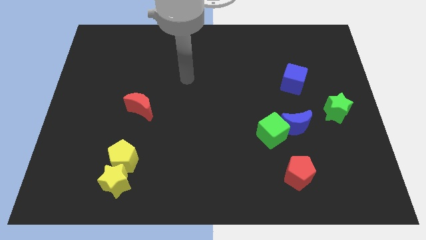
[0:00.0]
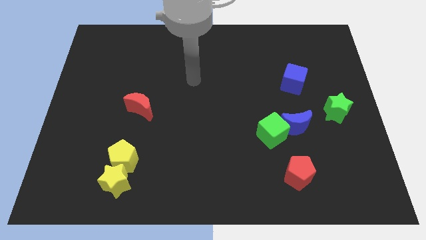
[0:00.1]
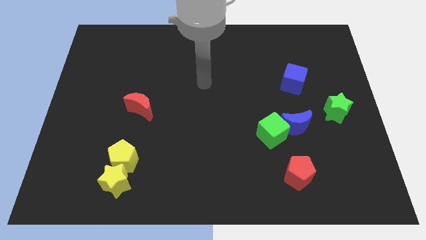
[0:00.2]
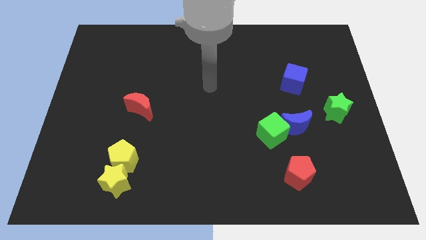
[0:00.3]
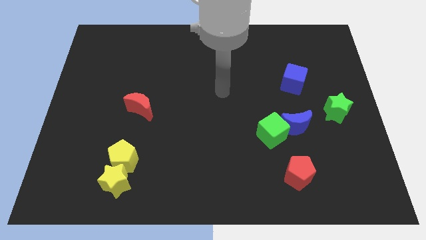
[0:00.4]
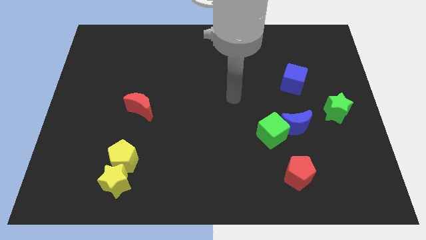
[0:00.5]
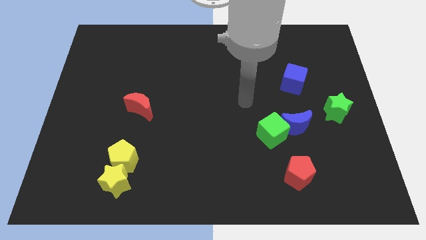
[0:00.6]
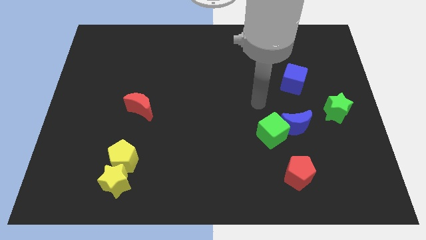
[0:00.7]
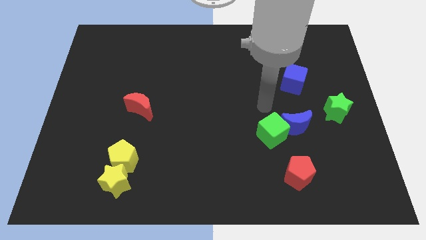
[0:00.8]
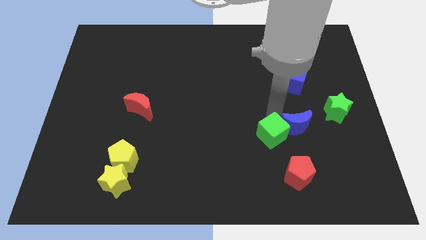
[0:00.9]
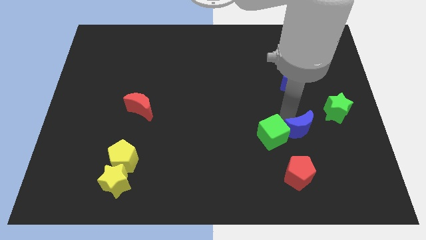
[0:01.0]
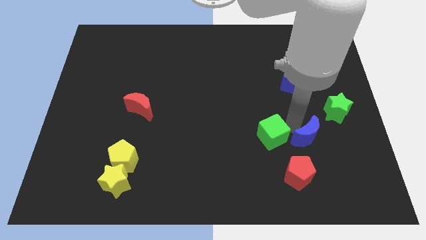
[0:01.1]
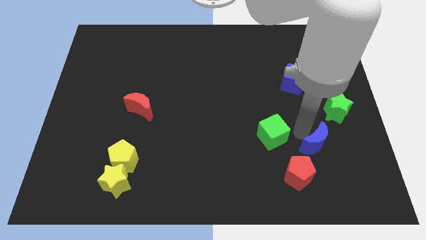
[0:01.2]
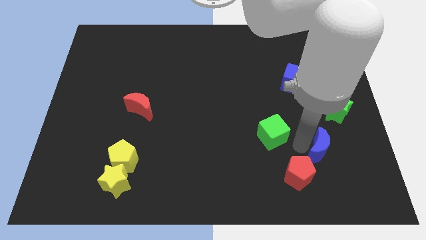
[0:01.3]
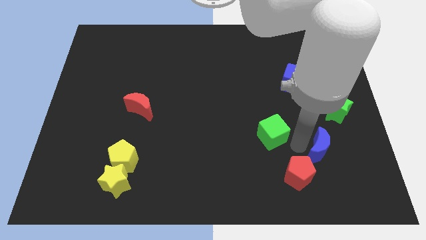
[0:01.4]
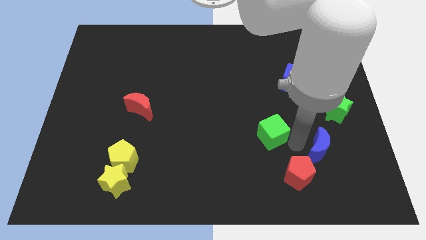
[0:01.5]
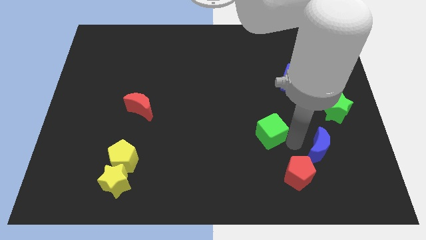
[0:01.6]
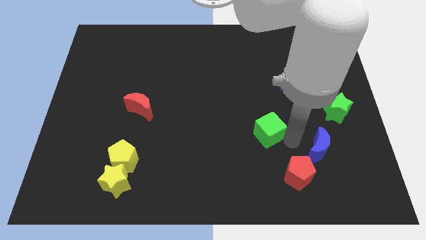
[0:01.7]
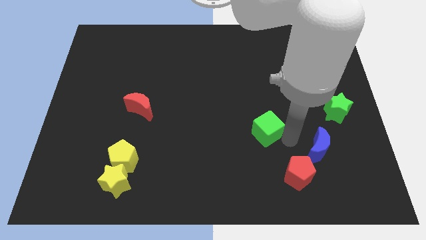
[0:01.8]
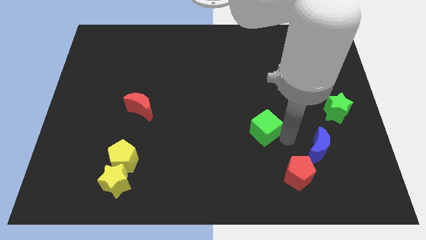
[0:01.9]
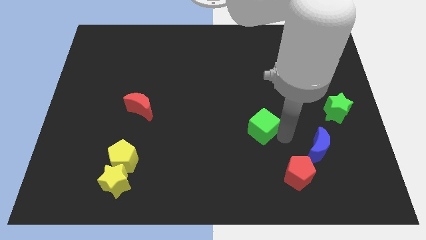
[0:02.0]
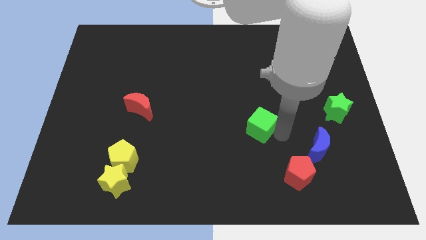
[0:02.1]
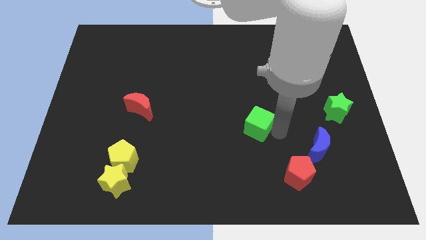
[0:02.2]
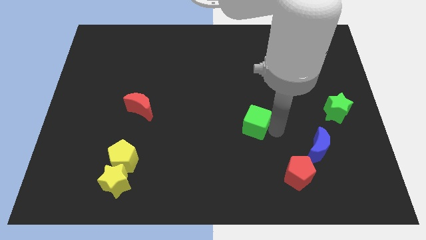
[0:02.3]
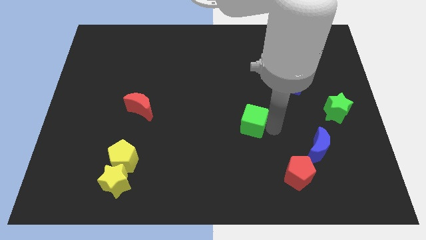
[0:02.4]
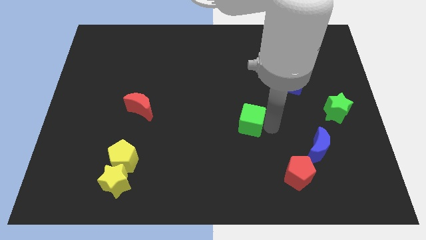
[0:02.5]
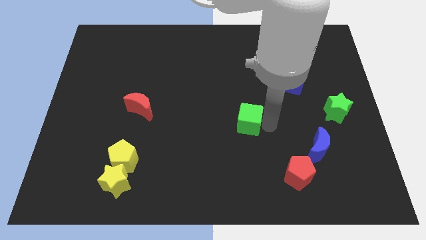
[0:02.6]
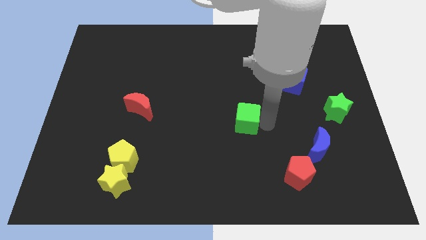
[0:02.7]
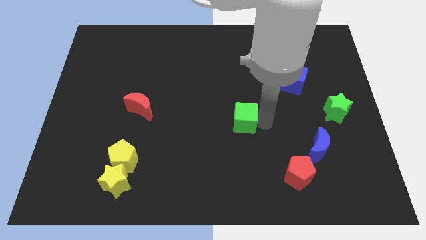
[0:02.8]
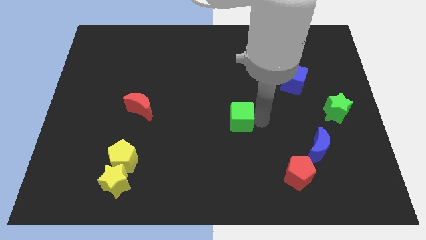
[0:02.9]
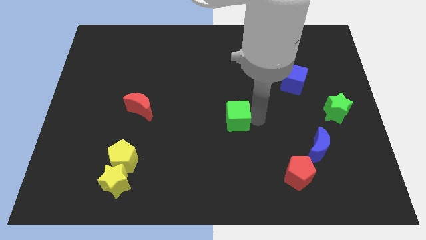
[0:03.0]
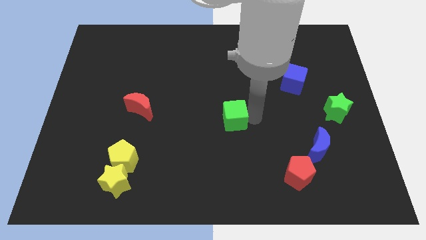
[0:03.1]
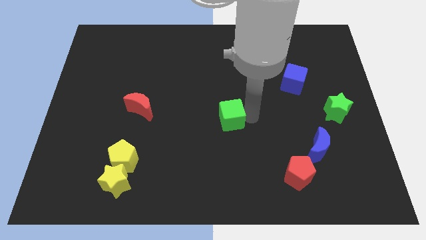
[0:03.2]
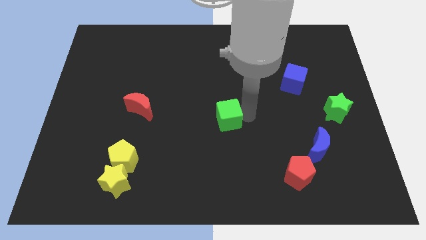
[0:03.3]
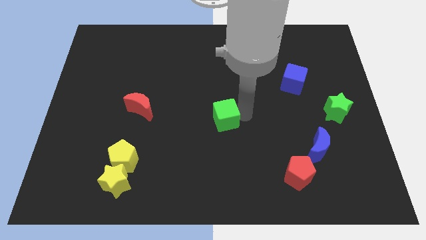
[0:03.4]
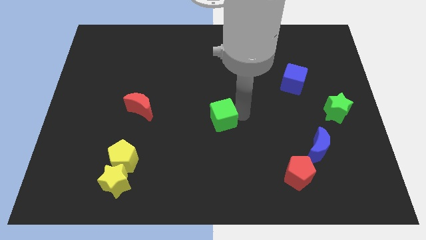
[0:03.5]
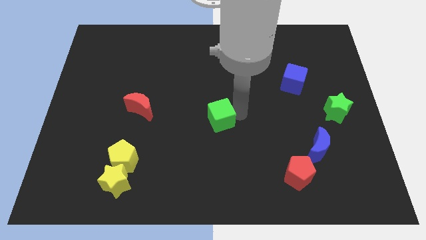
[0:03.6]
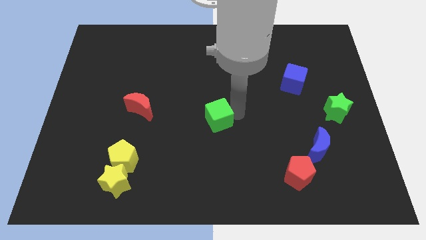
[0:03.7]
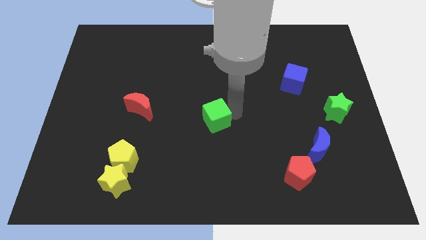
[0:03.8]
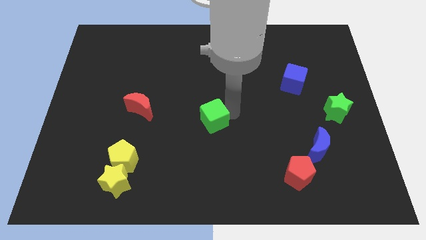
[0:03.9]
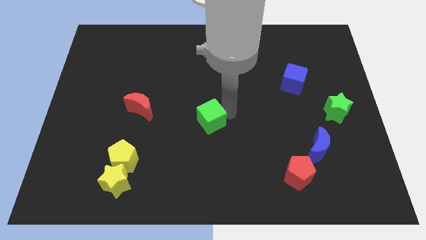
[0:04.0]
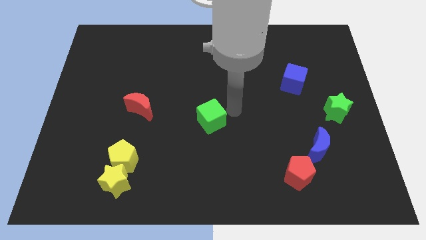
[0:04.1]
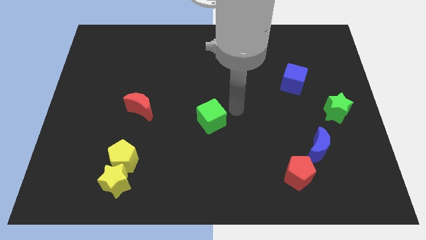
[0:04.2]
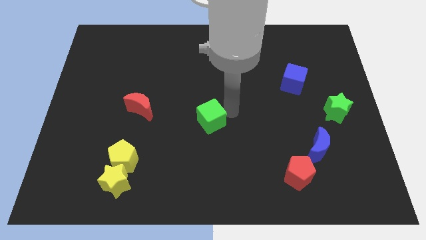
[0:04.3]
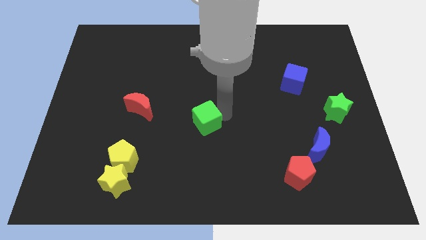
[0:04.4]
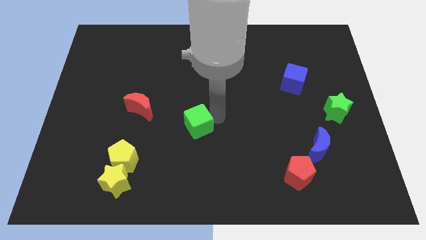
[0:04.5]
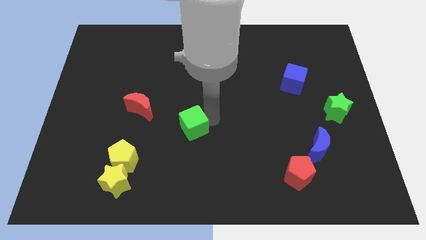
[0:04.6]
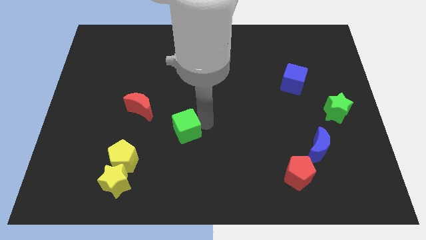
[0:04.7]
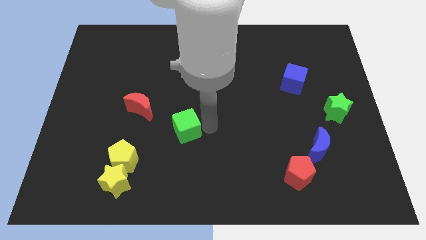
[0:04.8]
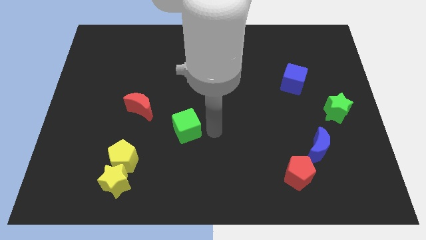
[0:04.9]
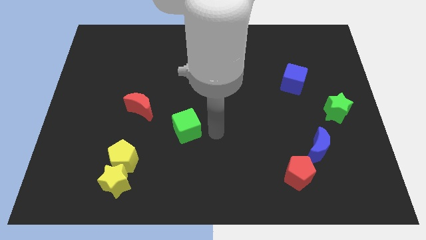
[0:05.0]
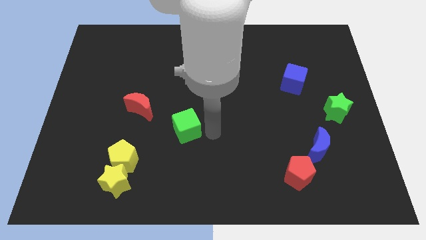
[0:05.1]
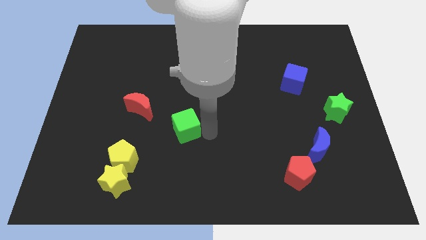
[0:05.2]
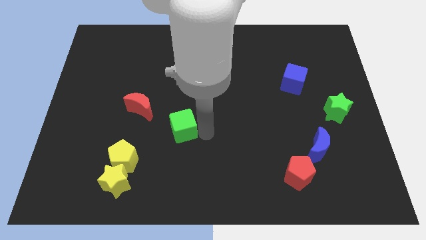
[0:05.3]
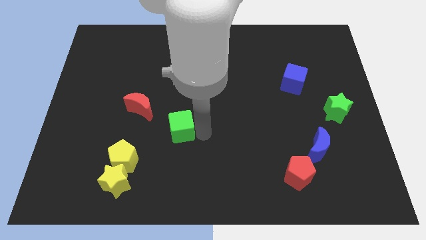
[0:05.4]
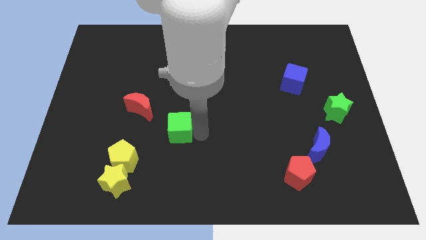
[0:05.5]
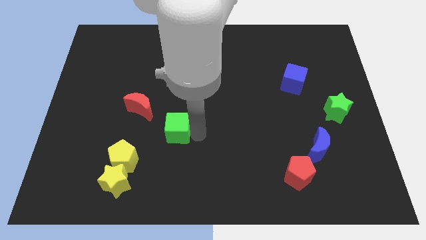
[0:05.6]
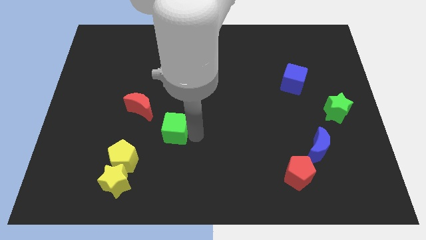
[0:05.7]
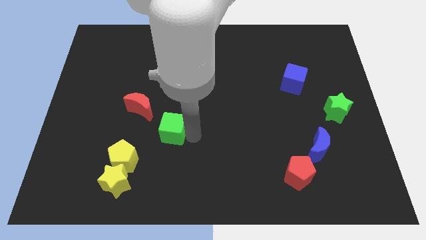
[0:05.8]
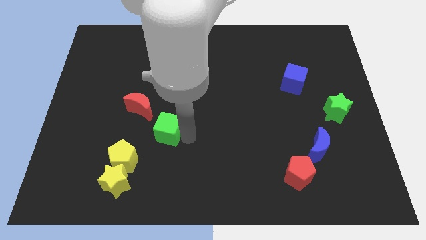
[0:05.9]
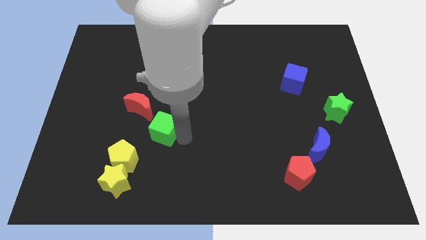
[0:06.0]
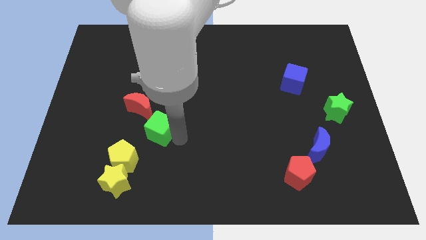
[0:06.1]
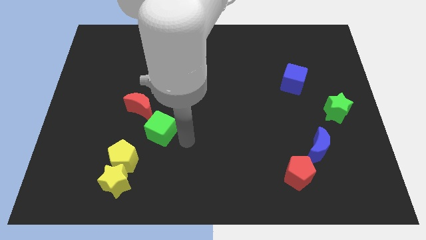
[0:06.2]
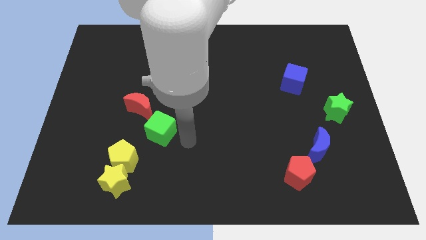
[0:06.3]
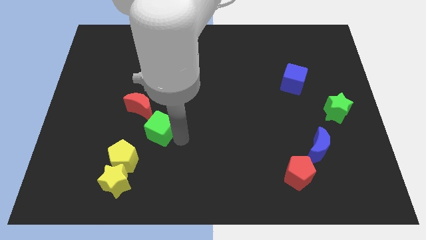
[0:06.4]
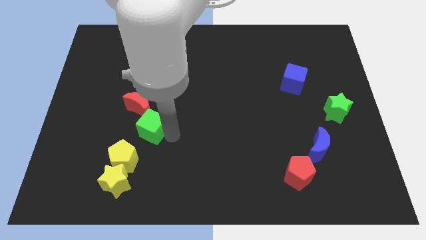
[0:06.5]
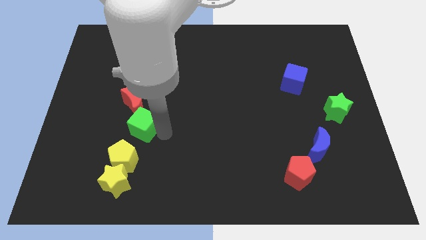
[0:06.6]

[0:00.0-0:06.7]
put the green cube to the top side of the yellow pentagon

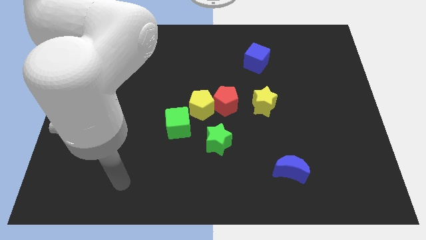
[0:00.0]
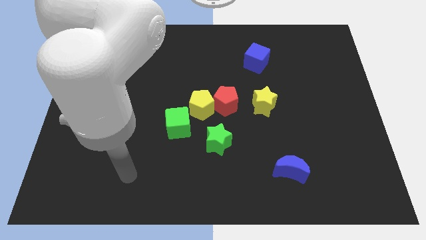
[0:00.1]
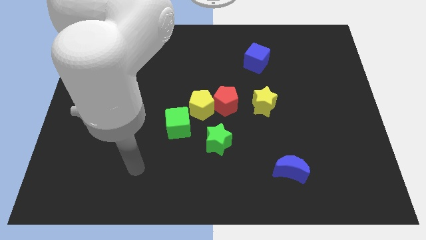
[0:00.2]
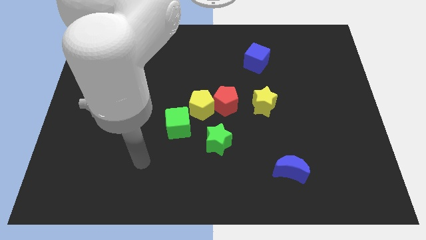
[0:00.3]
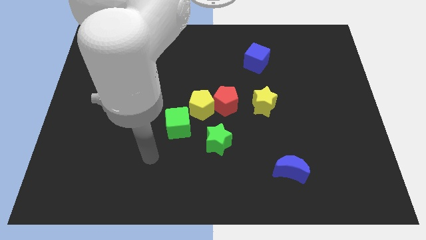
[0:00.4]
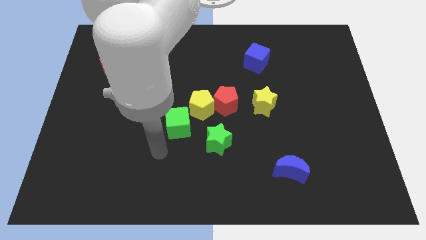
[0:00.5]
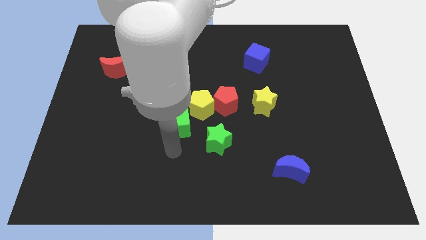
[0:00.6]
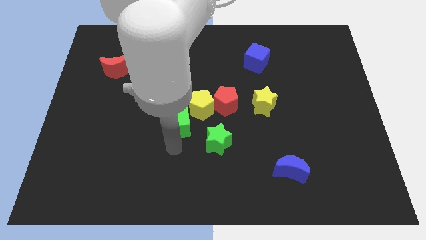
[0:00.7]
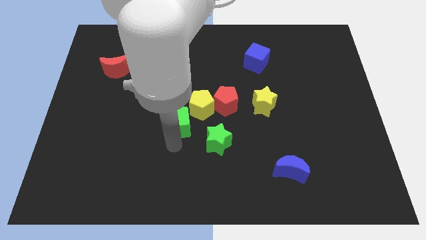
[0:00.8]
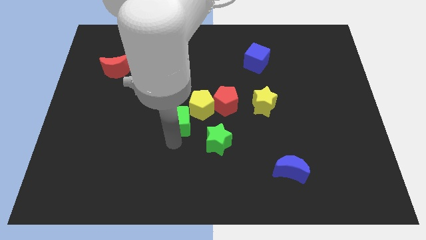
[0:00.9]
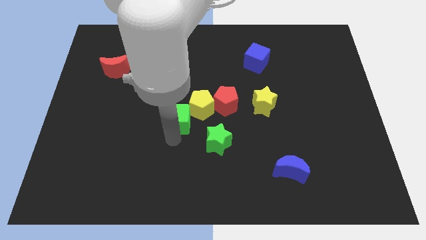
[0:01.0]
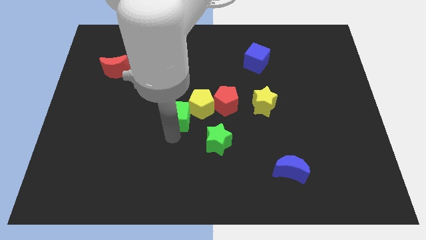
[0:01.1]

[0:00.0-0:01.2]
push the green cube just left of the red pentagon

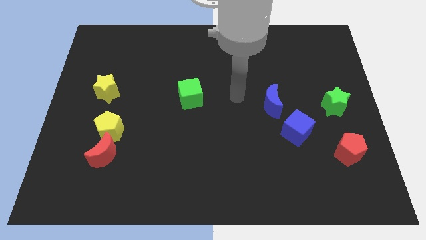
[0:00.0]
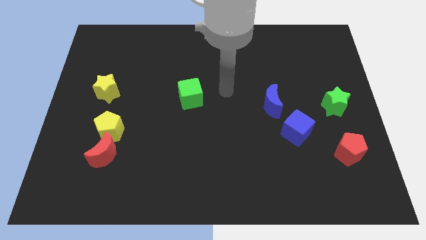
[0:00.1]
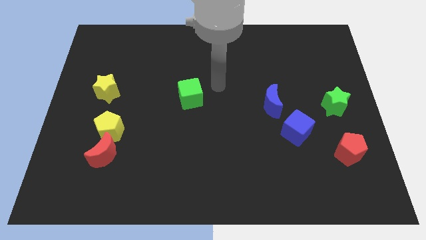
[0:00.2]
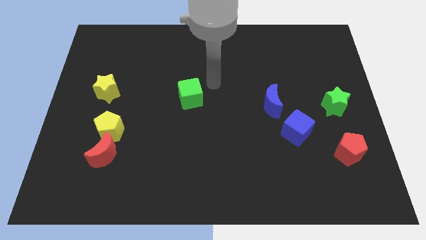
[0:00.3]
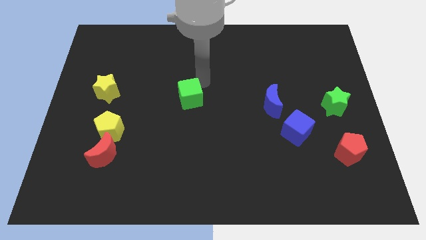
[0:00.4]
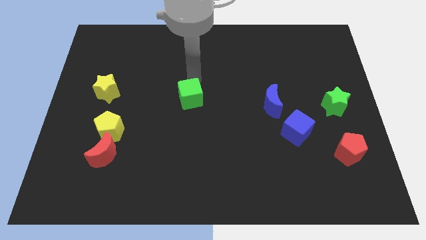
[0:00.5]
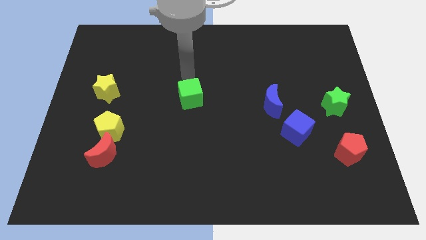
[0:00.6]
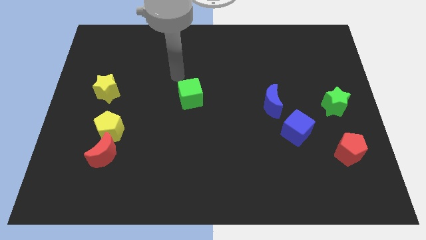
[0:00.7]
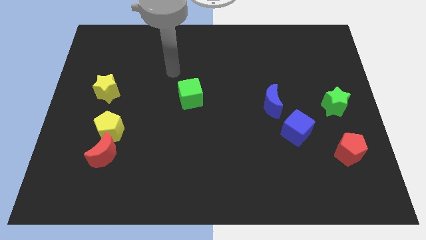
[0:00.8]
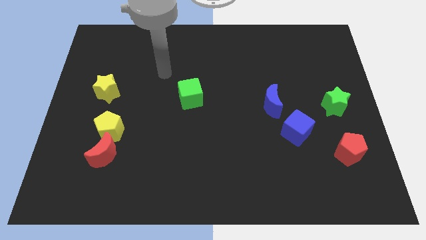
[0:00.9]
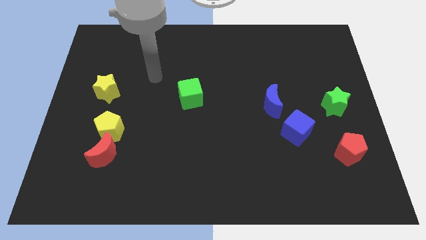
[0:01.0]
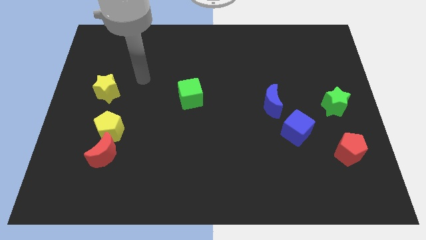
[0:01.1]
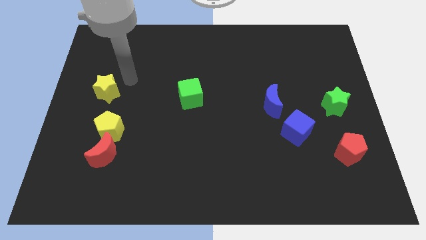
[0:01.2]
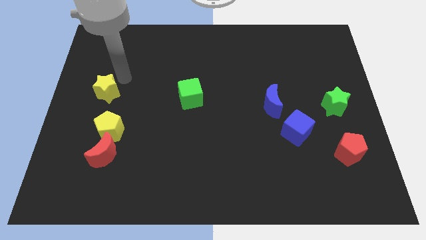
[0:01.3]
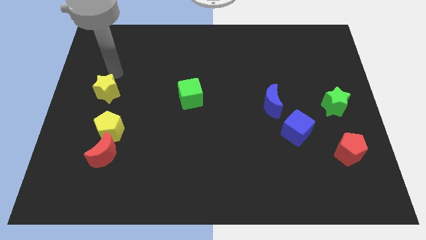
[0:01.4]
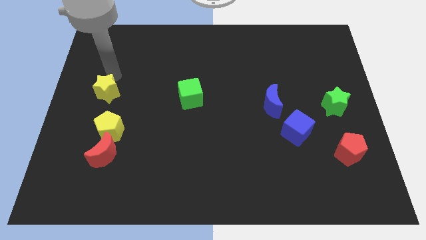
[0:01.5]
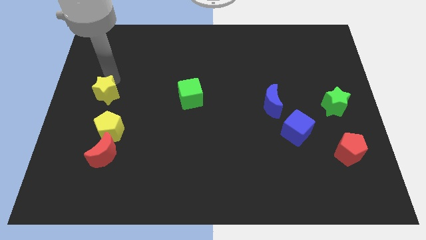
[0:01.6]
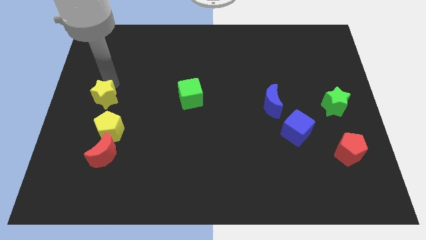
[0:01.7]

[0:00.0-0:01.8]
push the yellow star to the top of the red moon
